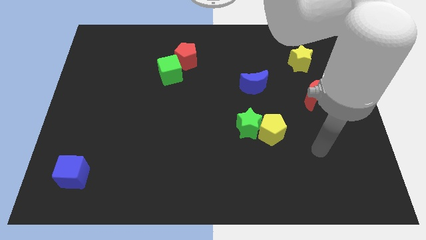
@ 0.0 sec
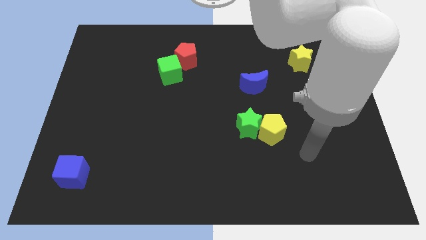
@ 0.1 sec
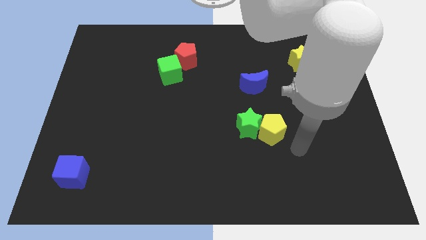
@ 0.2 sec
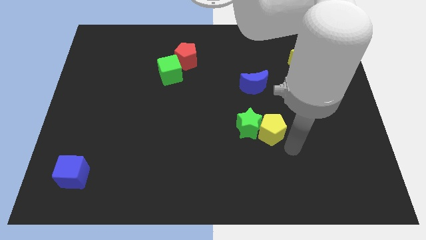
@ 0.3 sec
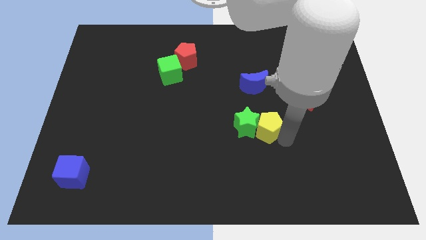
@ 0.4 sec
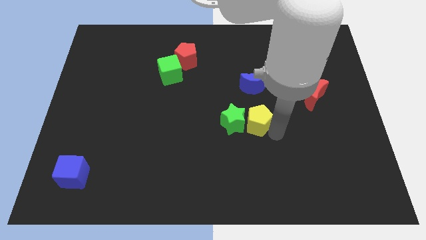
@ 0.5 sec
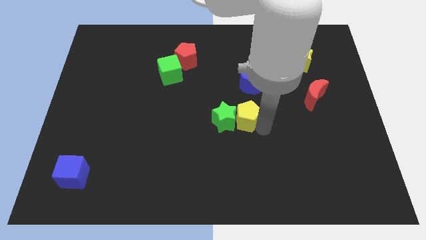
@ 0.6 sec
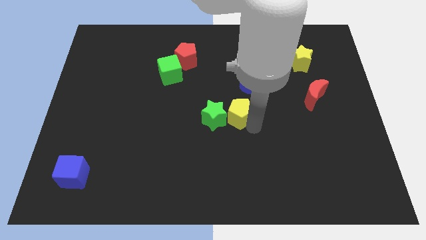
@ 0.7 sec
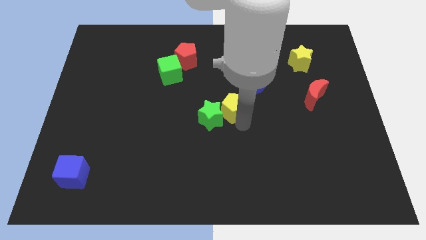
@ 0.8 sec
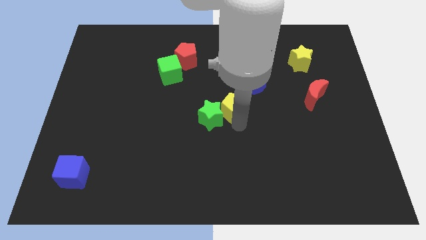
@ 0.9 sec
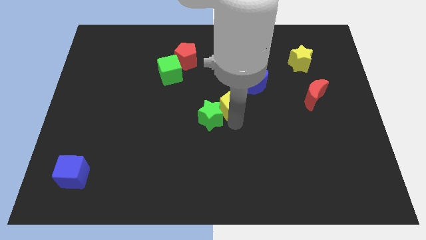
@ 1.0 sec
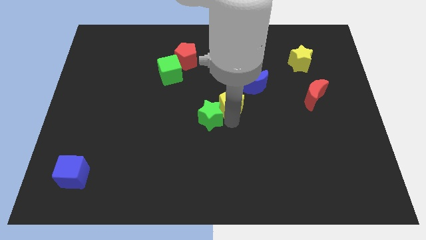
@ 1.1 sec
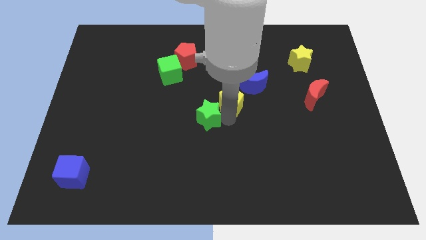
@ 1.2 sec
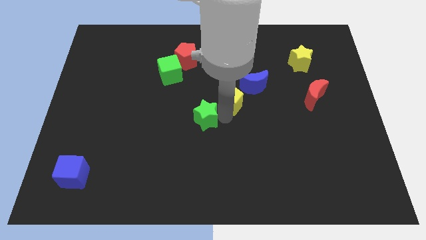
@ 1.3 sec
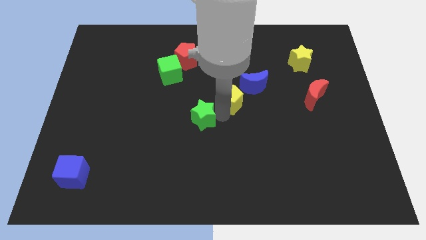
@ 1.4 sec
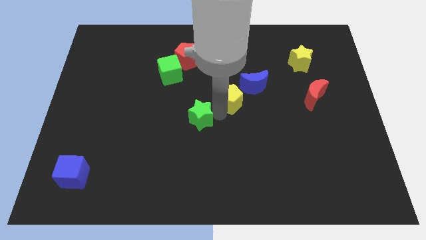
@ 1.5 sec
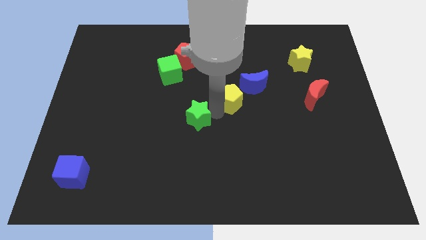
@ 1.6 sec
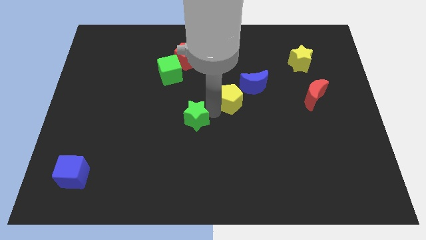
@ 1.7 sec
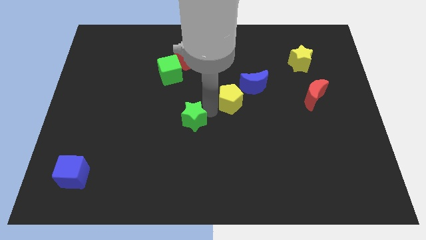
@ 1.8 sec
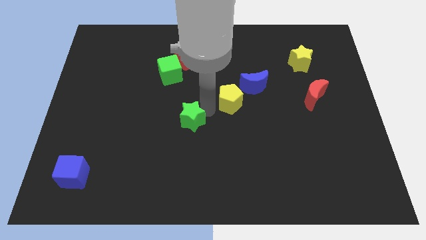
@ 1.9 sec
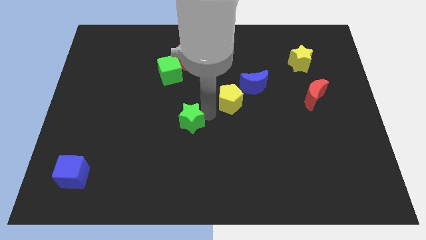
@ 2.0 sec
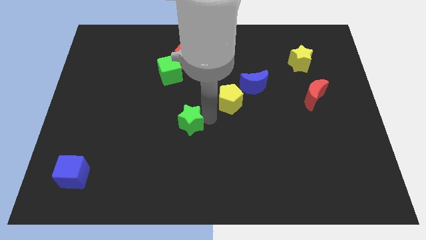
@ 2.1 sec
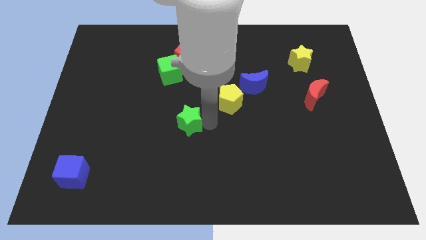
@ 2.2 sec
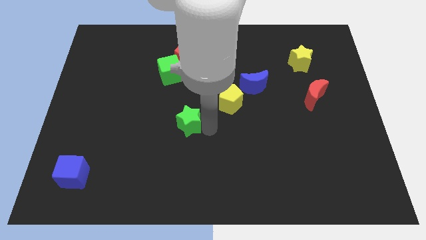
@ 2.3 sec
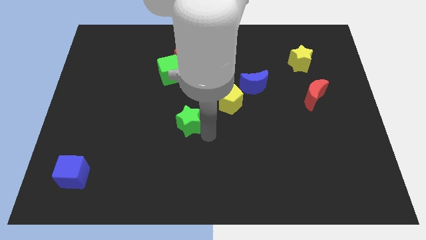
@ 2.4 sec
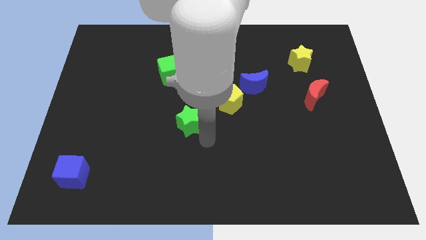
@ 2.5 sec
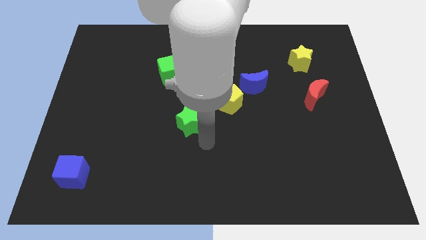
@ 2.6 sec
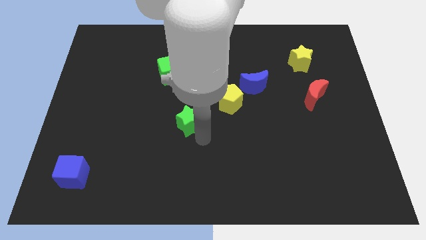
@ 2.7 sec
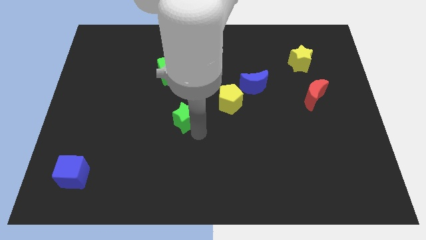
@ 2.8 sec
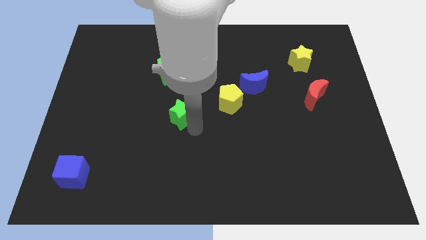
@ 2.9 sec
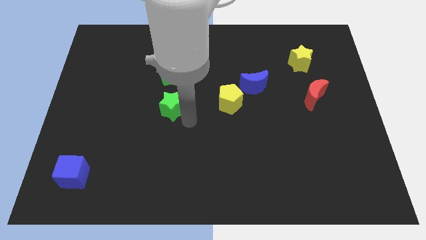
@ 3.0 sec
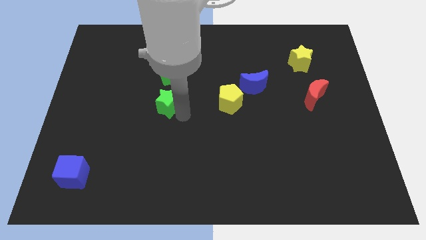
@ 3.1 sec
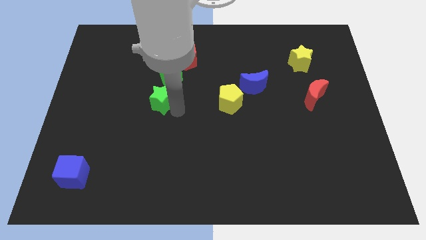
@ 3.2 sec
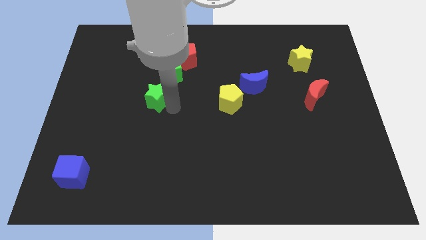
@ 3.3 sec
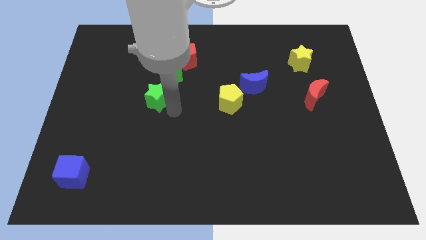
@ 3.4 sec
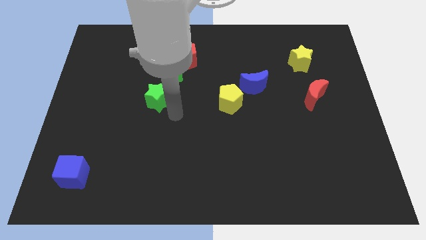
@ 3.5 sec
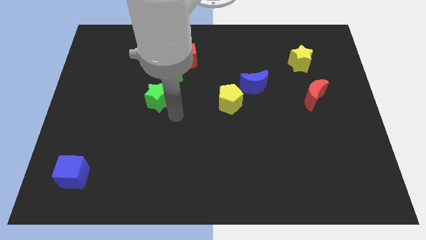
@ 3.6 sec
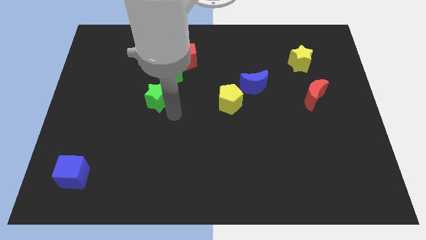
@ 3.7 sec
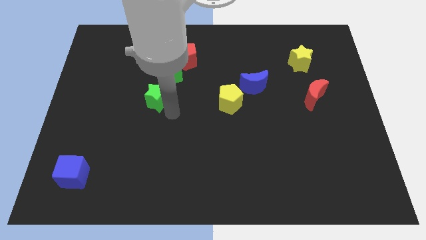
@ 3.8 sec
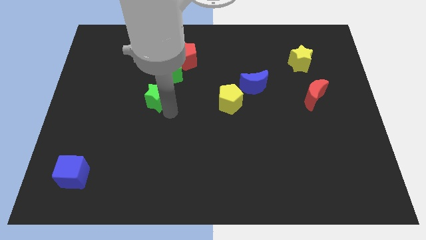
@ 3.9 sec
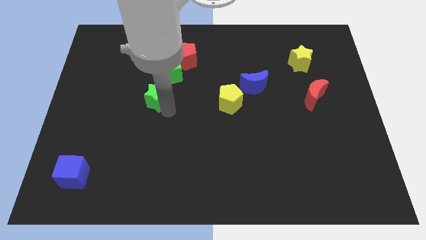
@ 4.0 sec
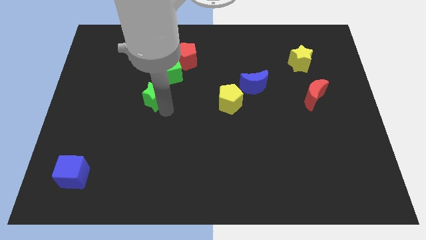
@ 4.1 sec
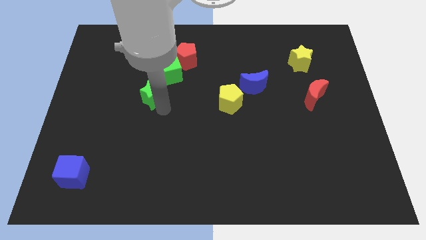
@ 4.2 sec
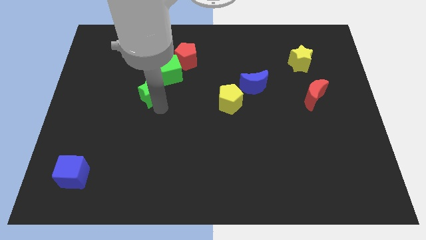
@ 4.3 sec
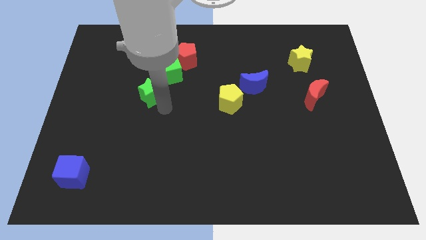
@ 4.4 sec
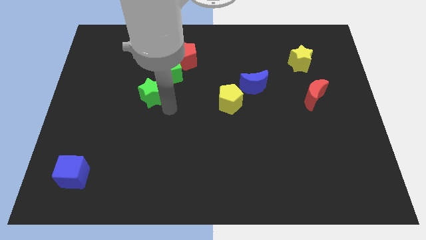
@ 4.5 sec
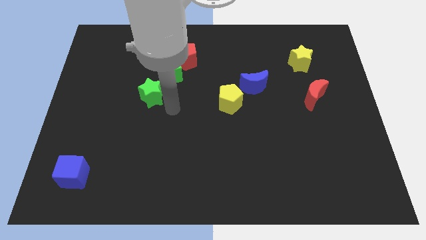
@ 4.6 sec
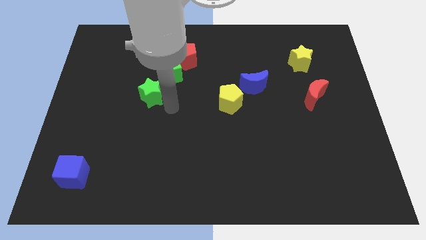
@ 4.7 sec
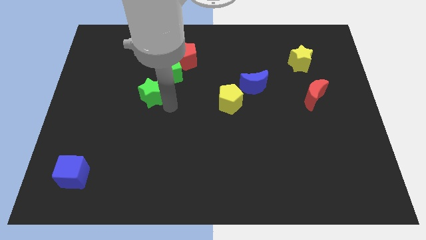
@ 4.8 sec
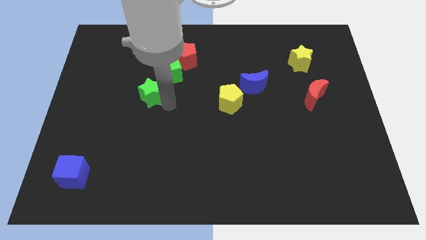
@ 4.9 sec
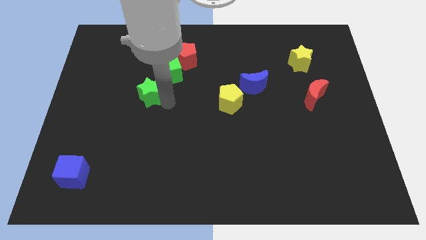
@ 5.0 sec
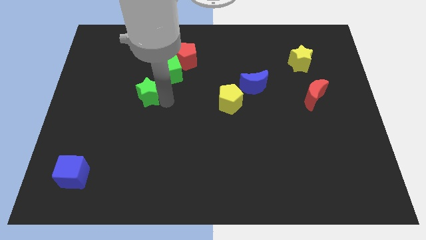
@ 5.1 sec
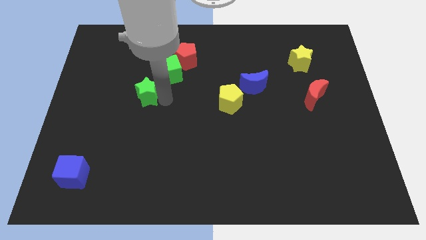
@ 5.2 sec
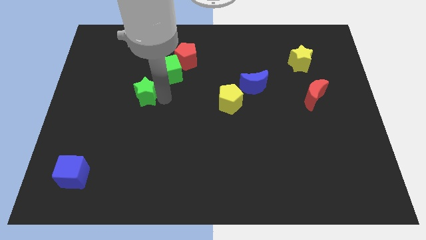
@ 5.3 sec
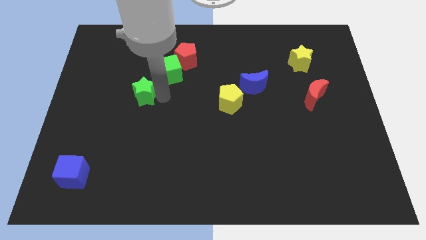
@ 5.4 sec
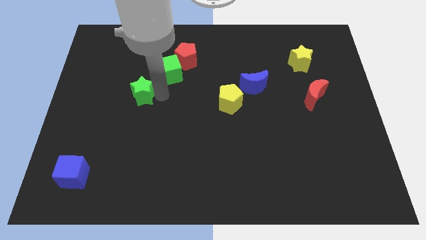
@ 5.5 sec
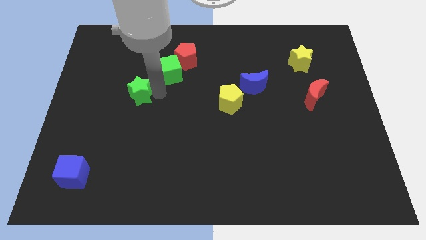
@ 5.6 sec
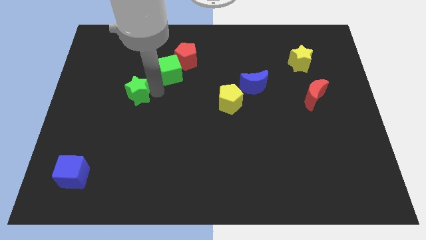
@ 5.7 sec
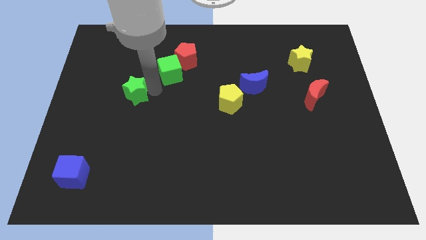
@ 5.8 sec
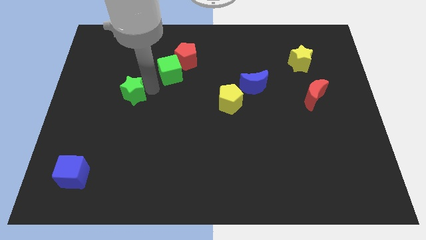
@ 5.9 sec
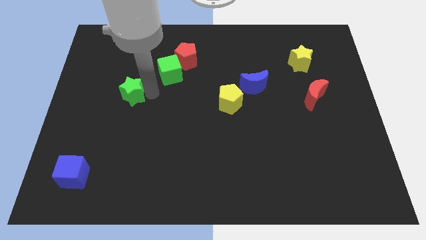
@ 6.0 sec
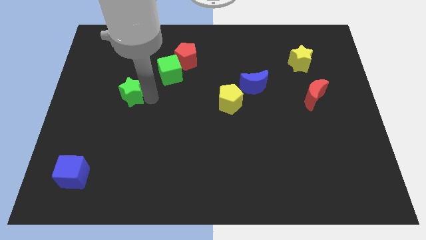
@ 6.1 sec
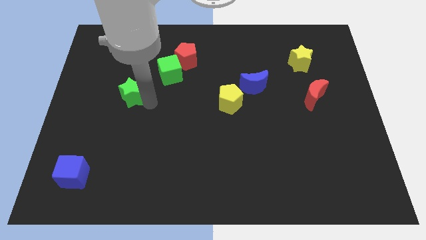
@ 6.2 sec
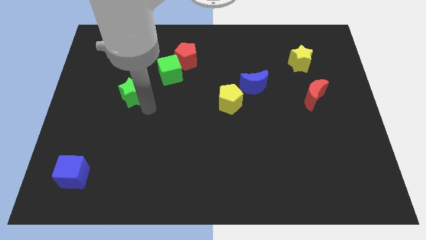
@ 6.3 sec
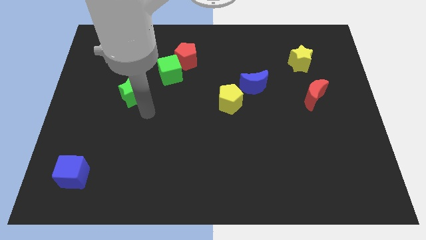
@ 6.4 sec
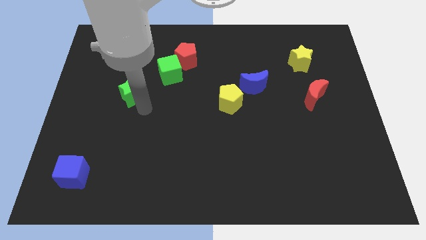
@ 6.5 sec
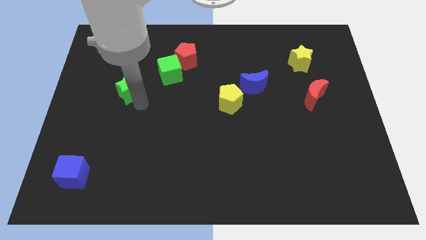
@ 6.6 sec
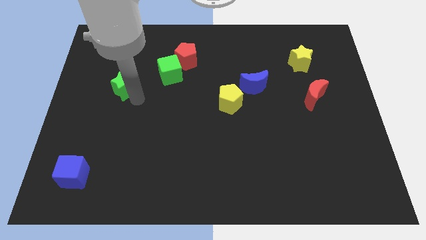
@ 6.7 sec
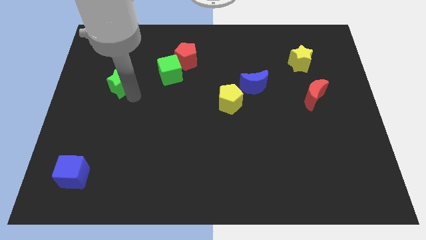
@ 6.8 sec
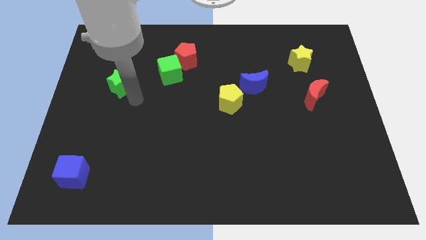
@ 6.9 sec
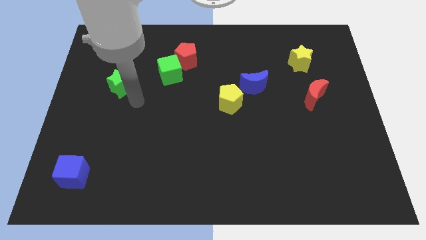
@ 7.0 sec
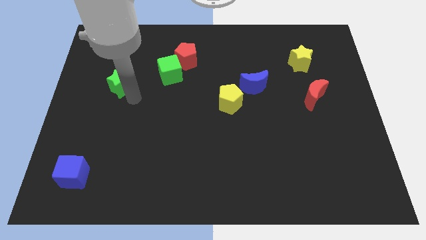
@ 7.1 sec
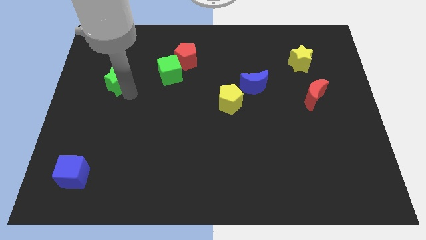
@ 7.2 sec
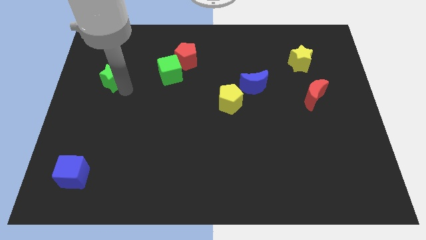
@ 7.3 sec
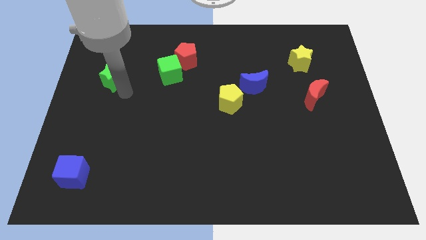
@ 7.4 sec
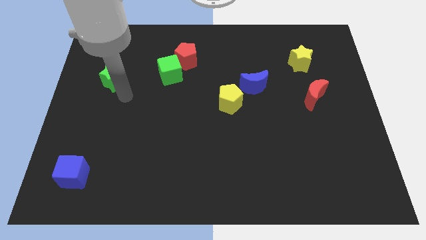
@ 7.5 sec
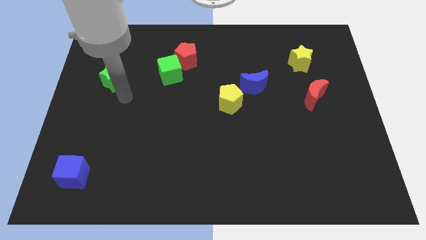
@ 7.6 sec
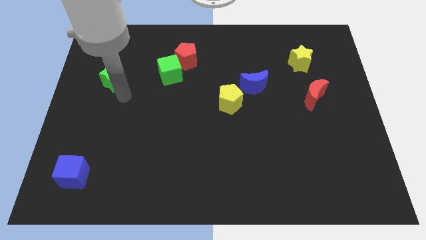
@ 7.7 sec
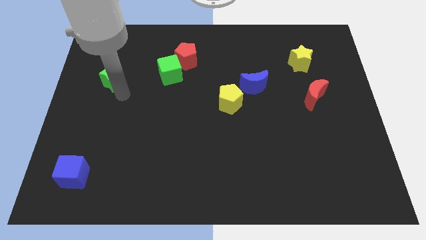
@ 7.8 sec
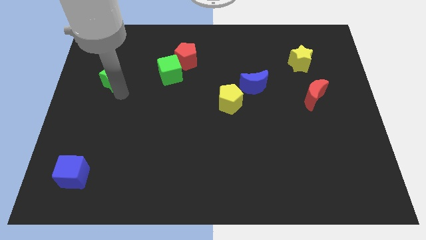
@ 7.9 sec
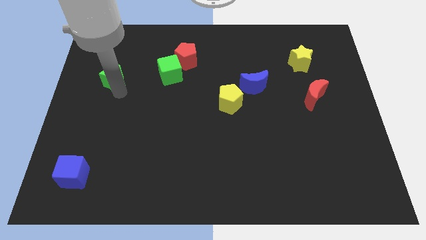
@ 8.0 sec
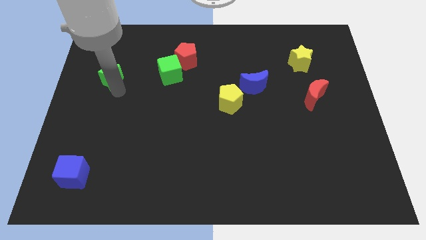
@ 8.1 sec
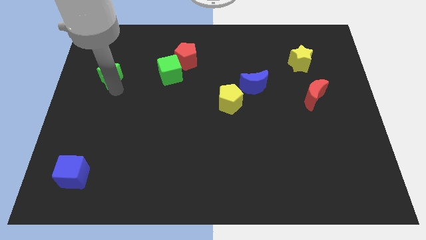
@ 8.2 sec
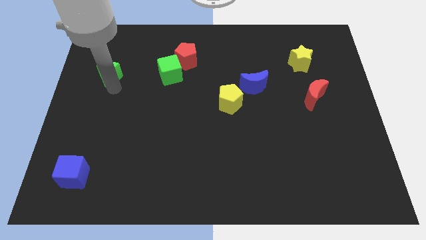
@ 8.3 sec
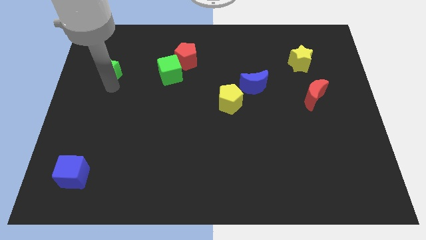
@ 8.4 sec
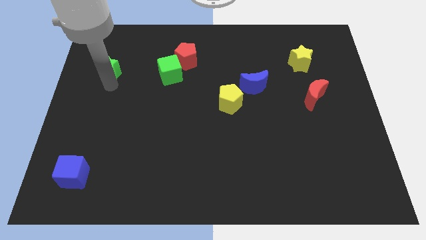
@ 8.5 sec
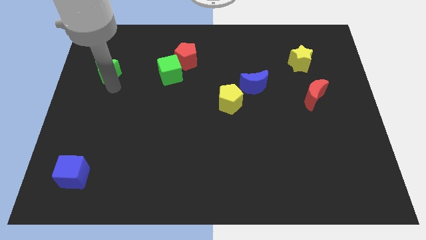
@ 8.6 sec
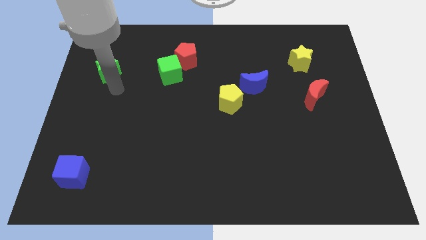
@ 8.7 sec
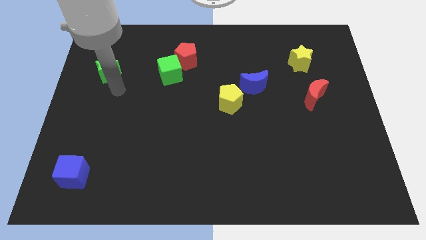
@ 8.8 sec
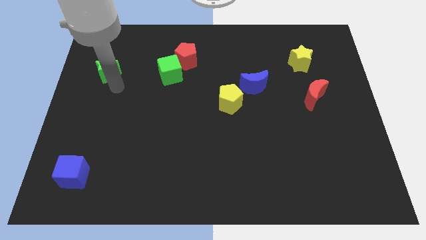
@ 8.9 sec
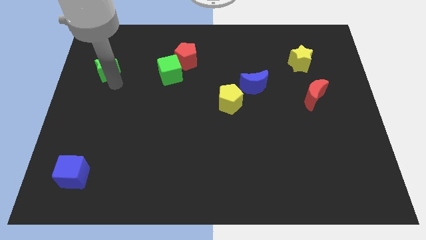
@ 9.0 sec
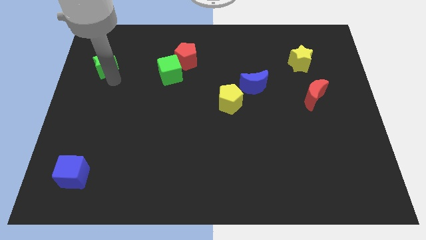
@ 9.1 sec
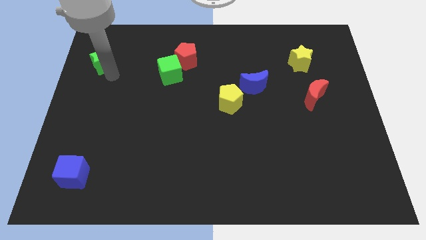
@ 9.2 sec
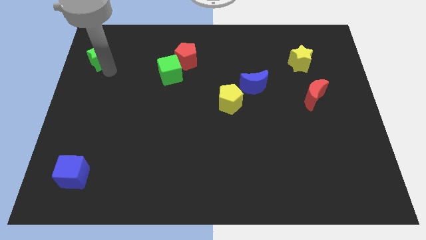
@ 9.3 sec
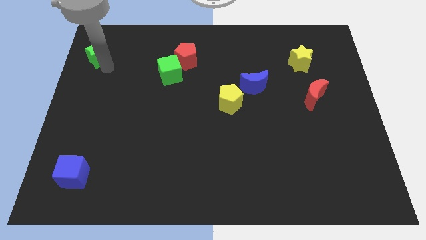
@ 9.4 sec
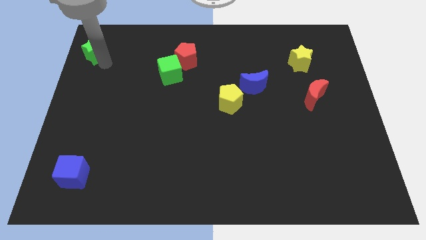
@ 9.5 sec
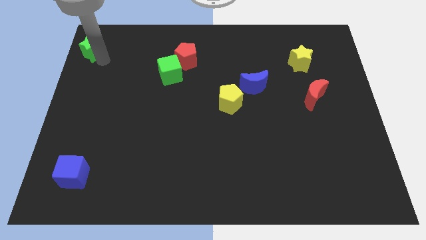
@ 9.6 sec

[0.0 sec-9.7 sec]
push the green star to the top left corner
